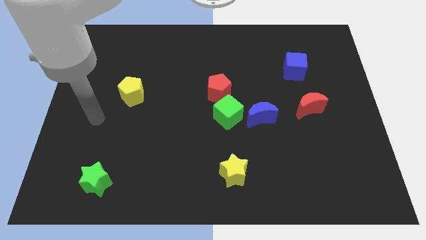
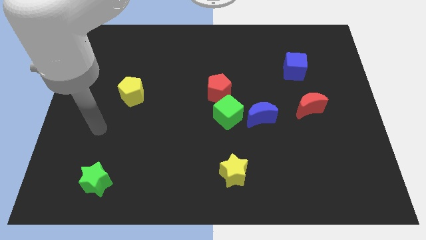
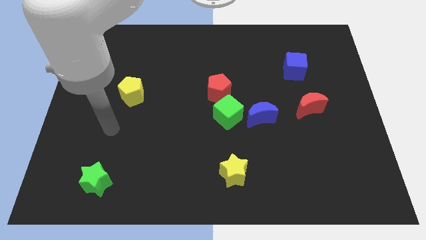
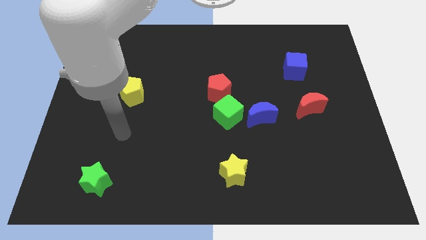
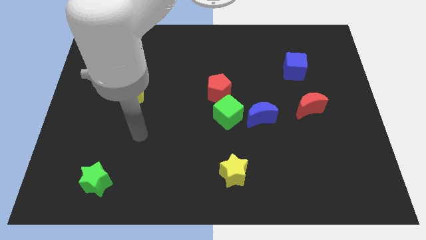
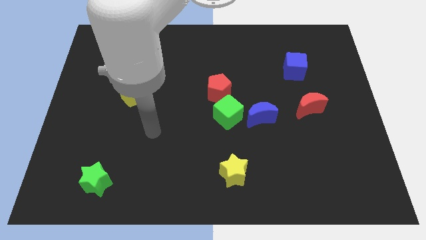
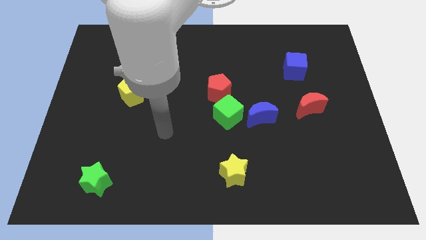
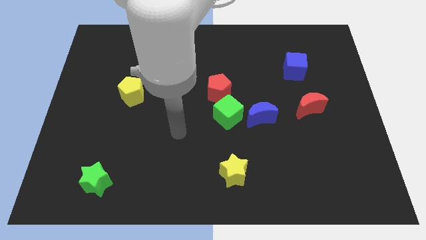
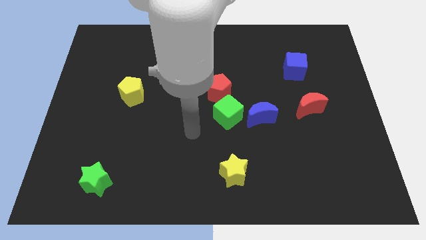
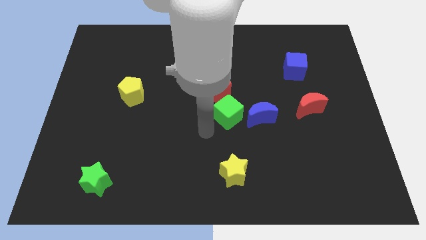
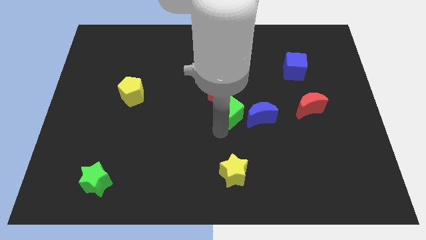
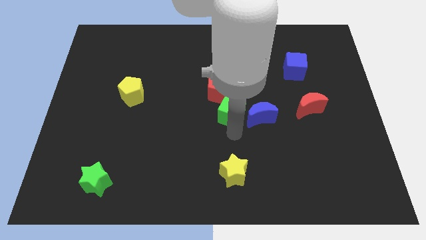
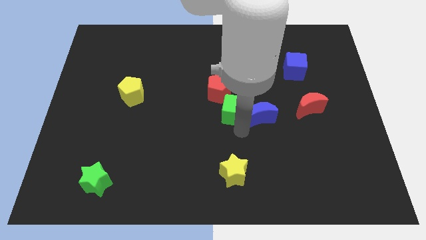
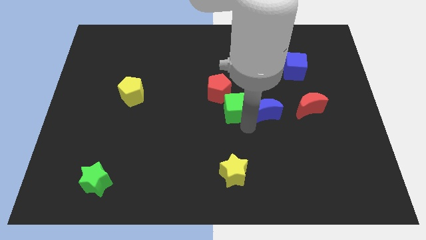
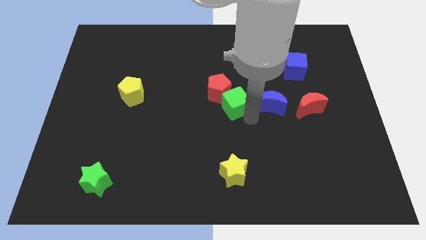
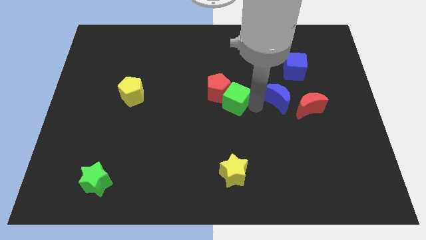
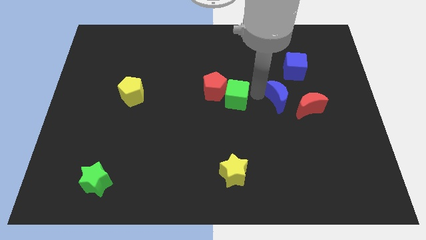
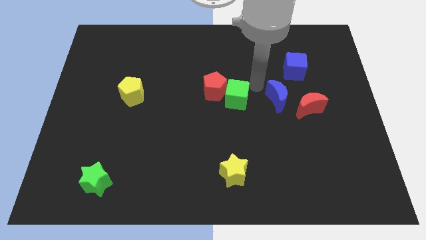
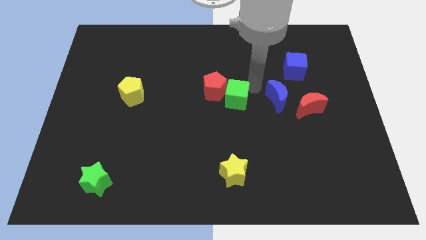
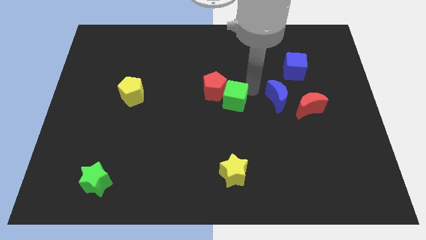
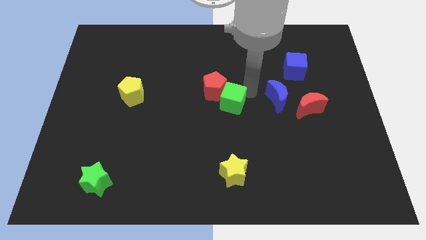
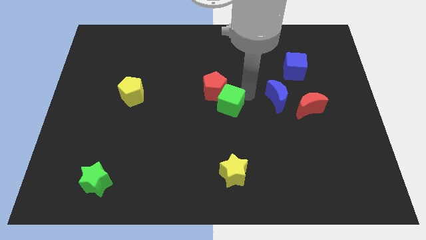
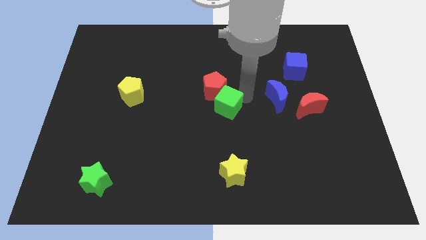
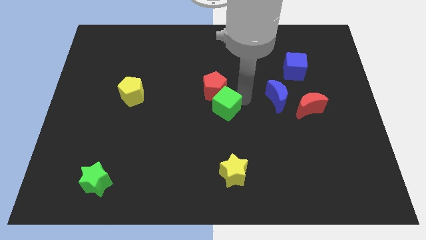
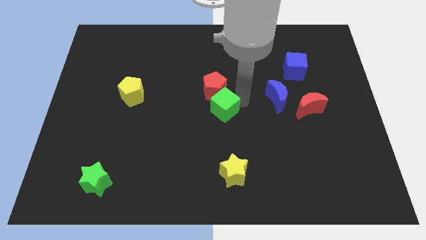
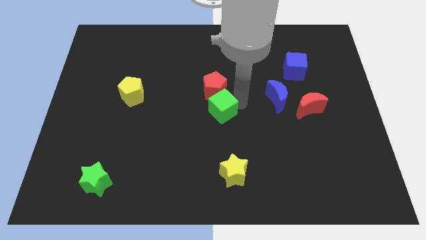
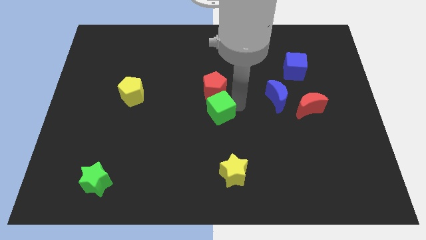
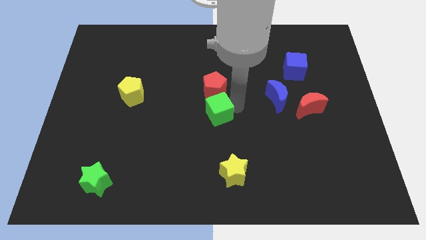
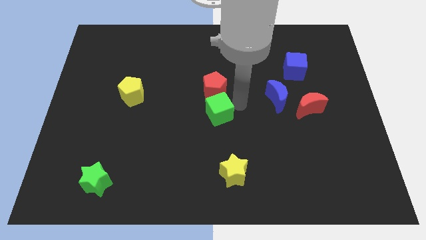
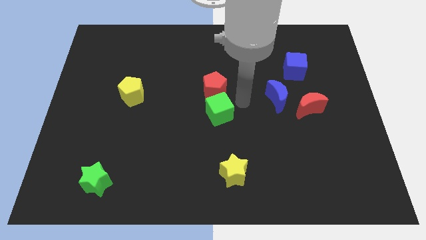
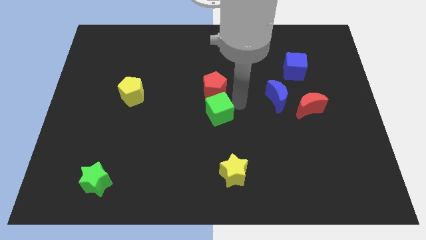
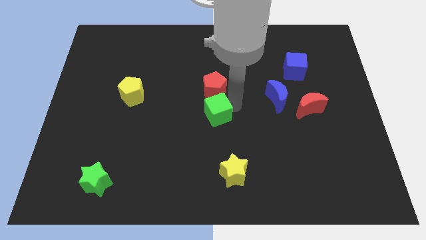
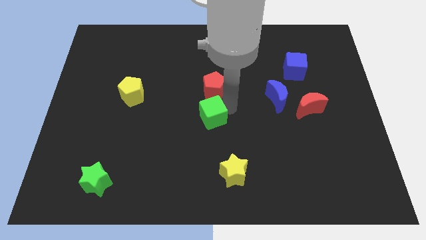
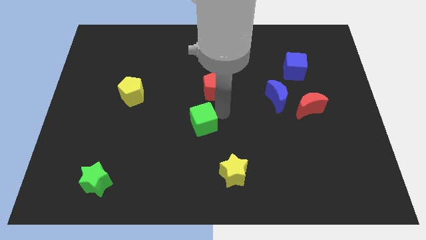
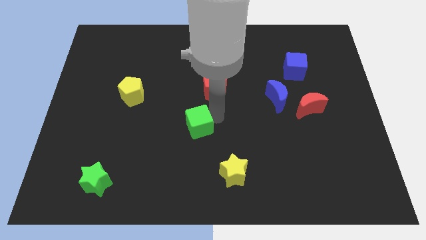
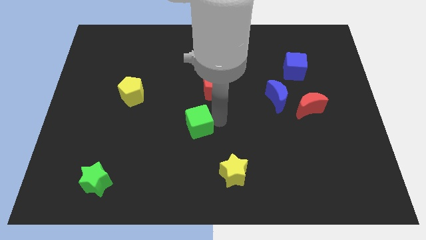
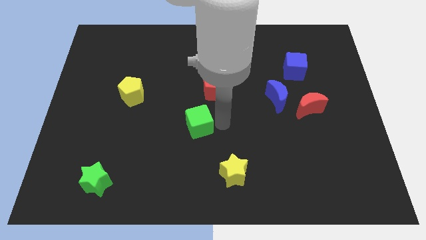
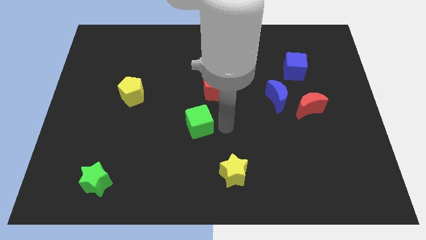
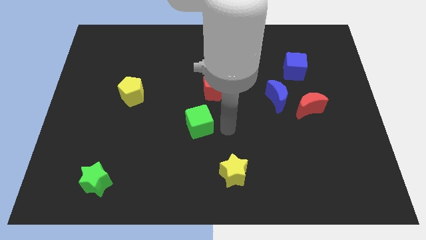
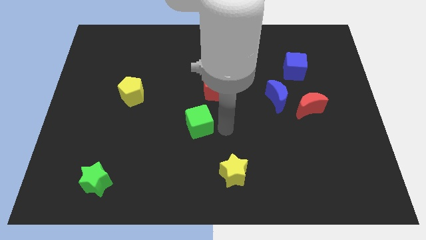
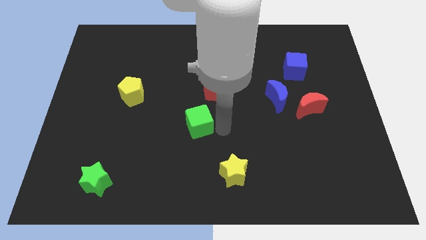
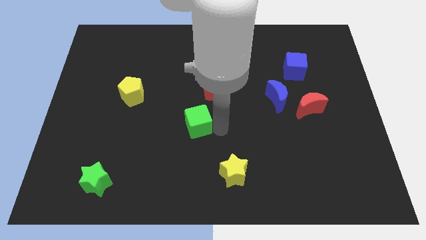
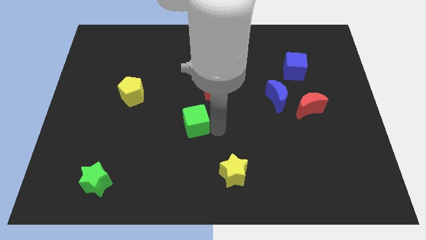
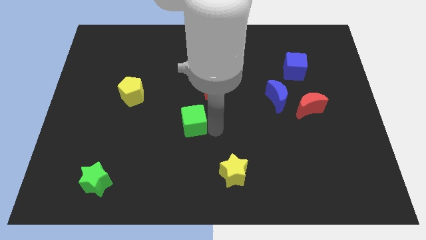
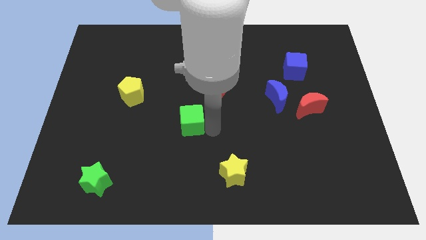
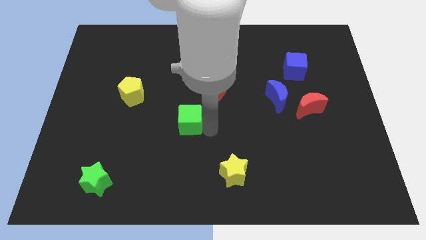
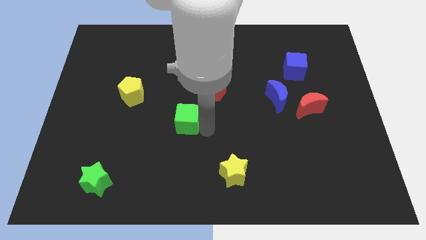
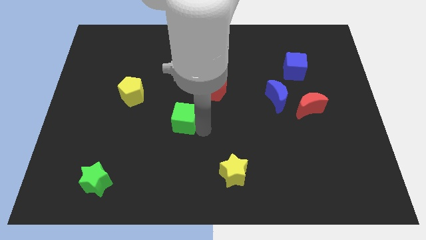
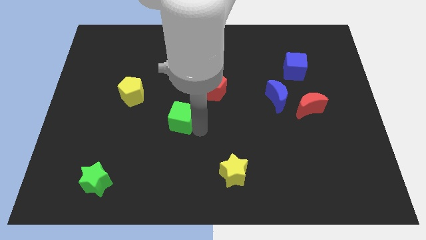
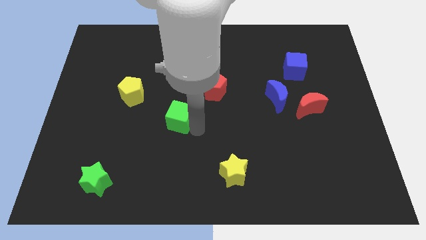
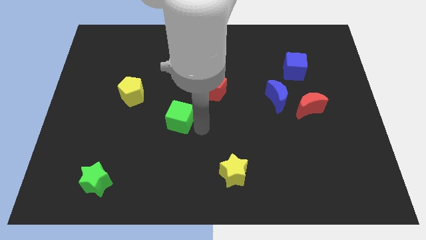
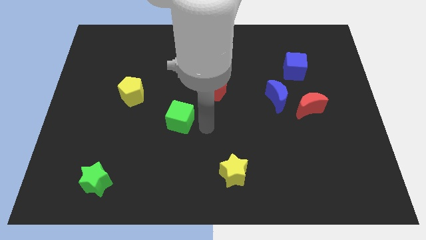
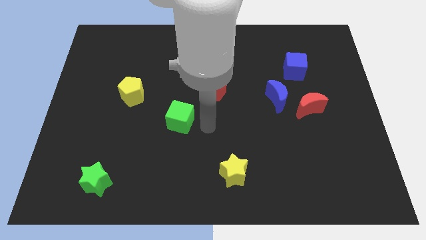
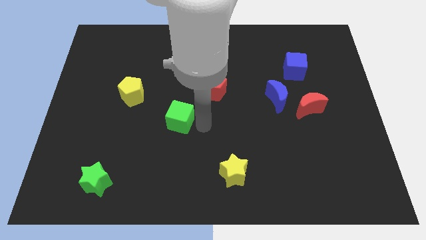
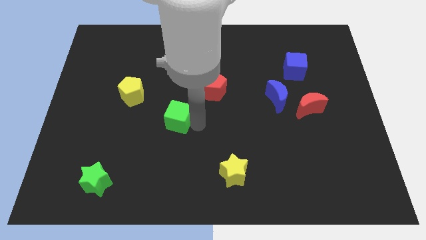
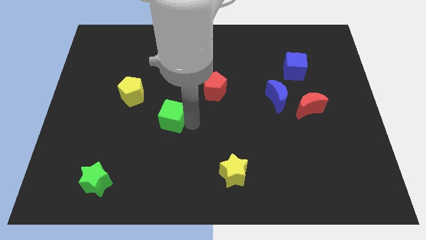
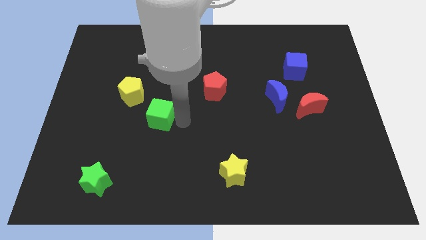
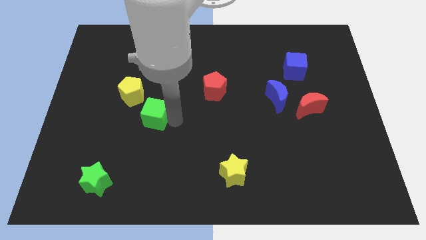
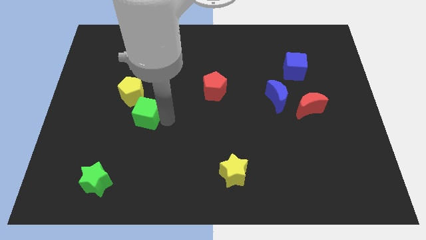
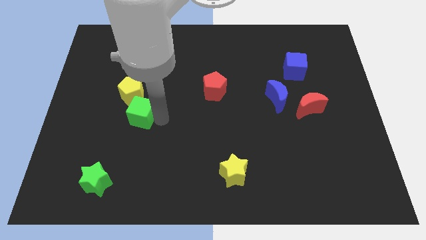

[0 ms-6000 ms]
slide the green cube to the left

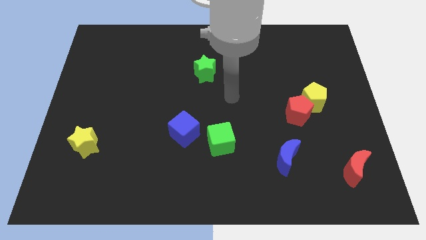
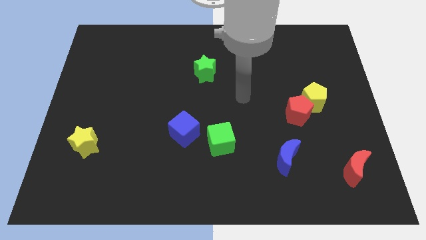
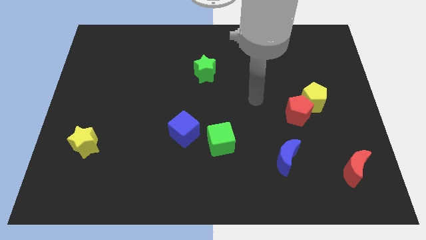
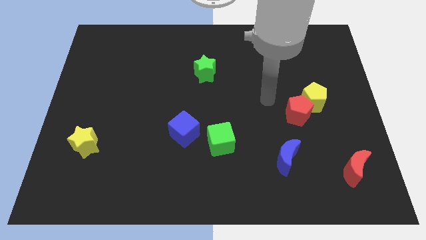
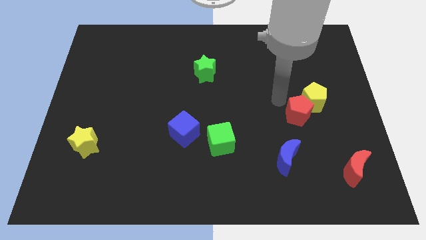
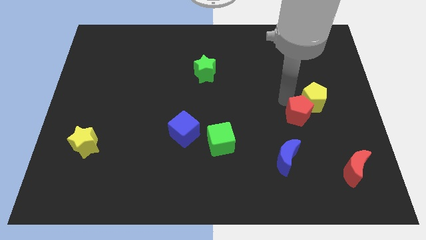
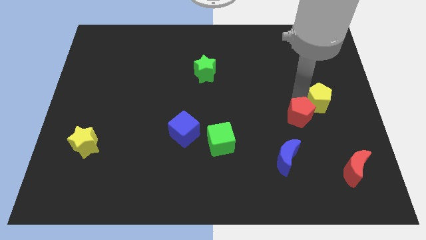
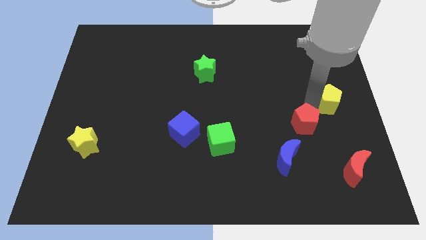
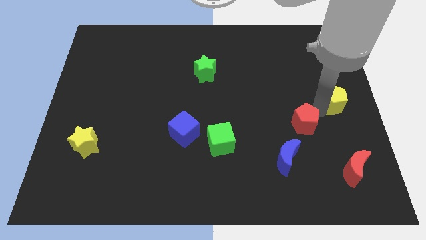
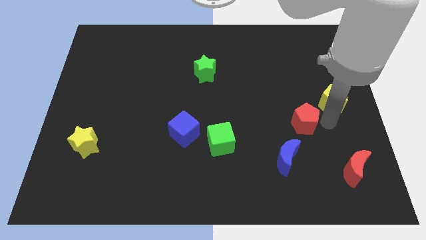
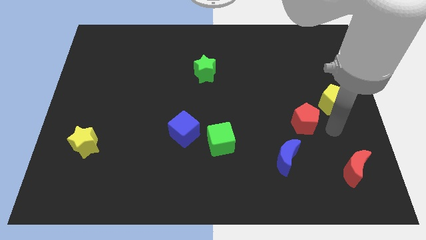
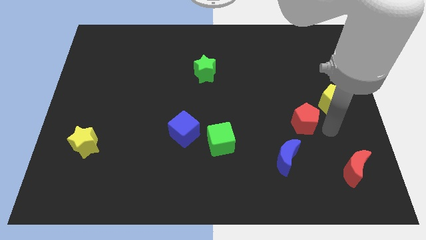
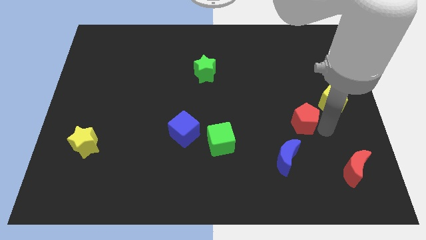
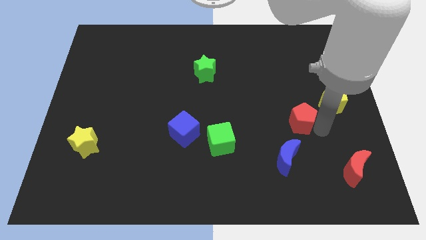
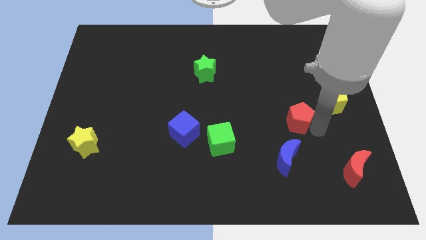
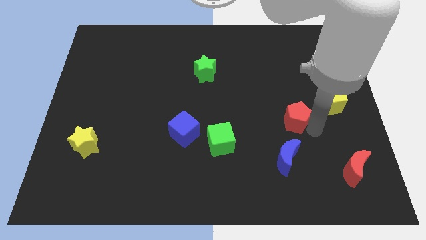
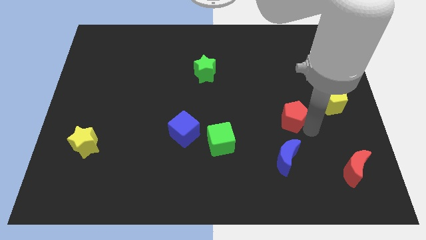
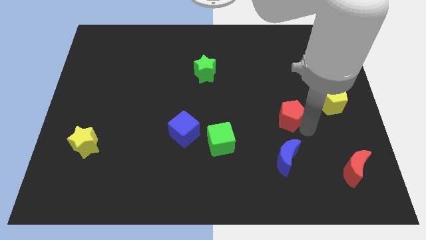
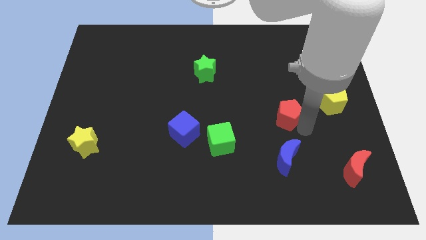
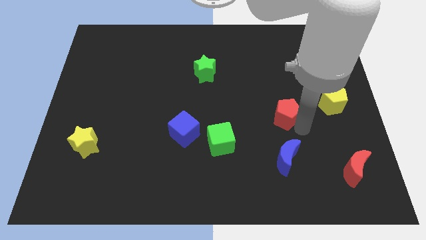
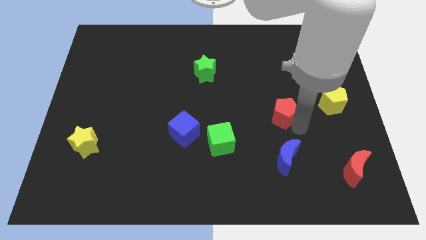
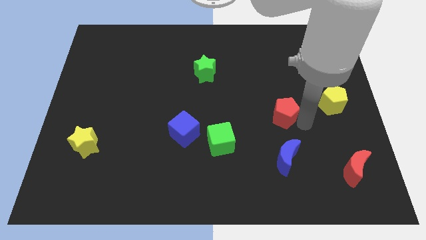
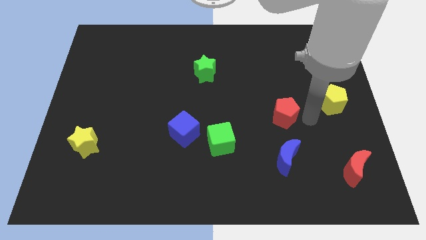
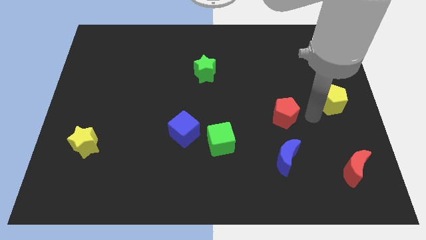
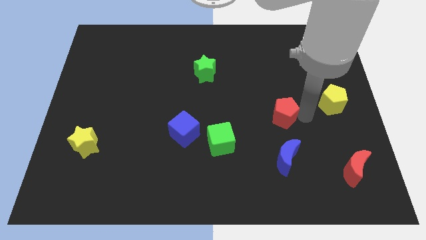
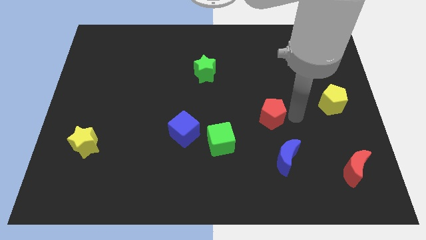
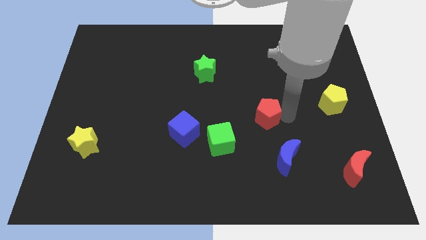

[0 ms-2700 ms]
slightly move the red pentagon to the left
